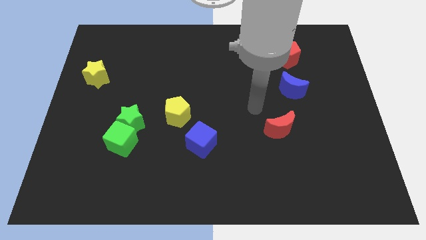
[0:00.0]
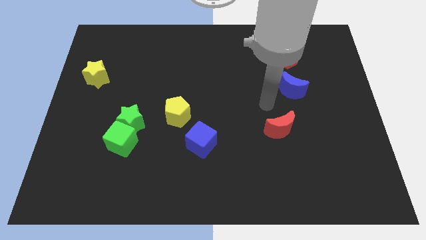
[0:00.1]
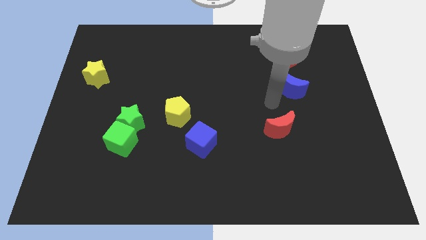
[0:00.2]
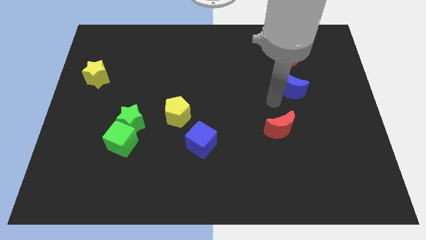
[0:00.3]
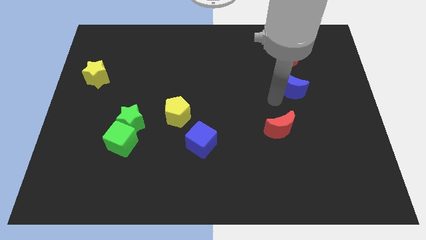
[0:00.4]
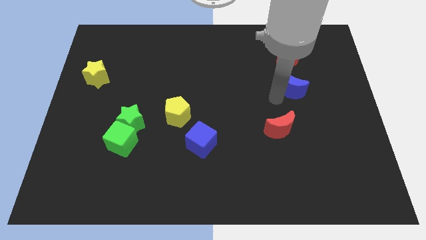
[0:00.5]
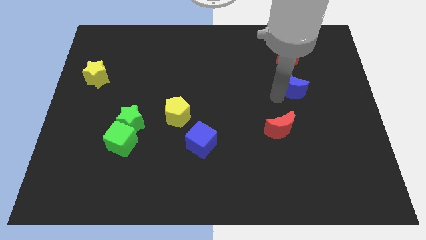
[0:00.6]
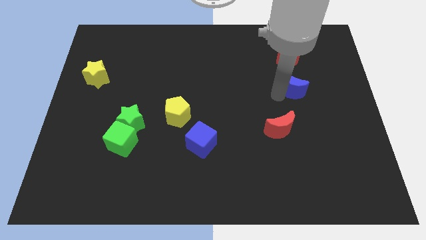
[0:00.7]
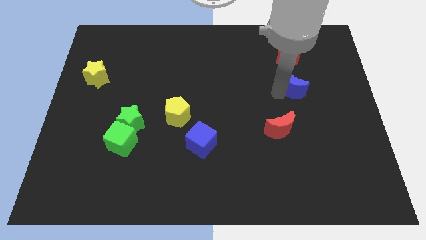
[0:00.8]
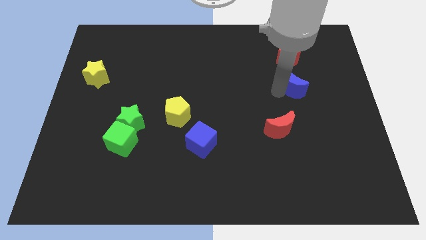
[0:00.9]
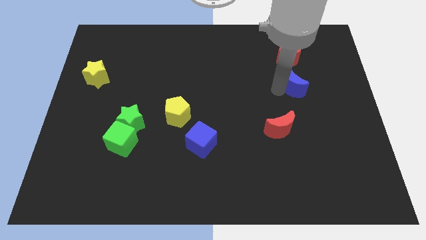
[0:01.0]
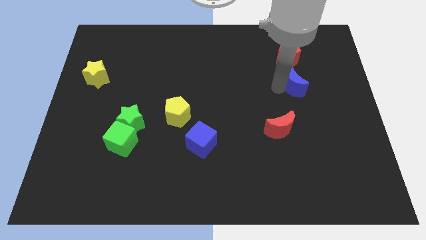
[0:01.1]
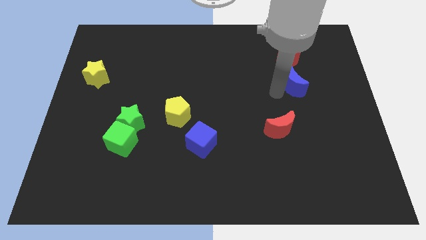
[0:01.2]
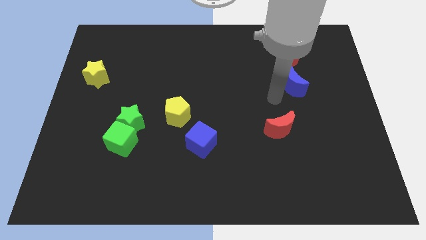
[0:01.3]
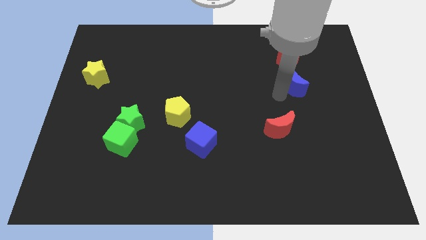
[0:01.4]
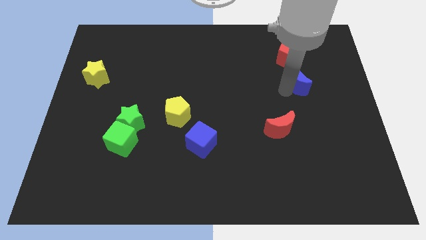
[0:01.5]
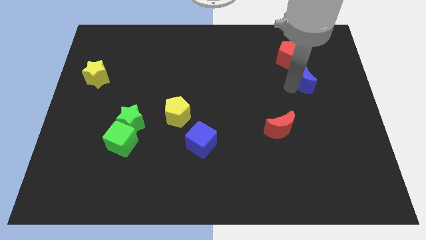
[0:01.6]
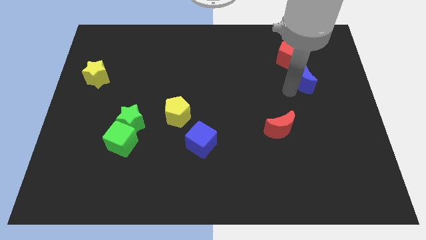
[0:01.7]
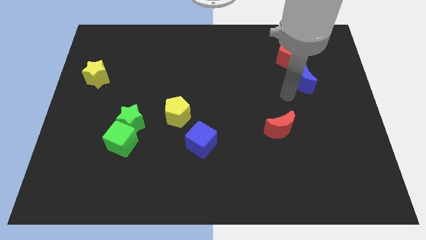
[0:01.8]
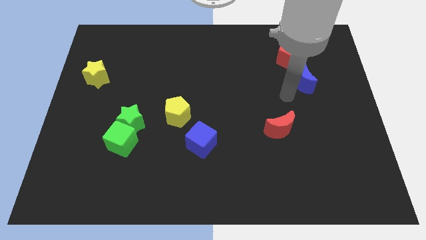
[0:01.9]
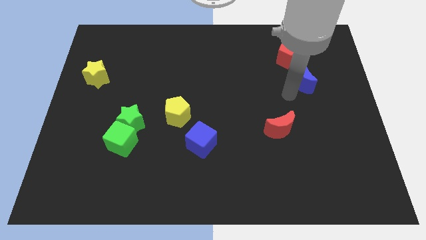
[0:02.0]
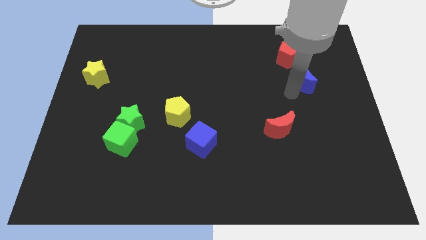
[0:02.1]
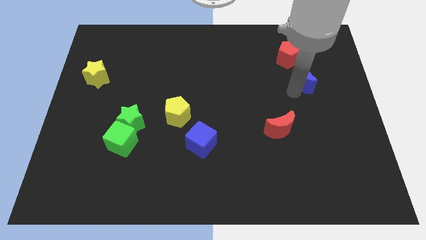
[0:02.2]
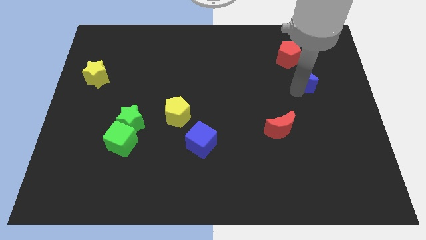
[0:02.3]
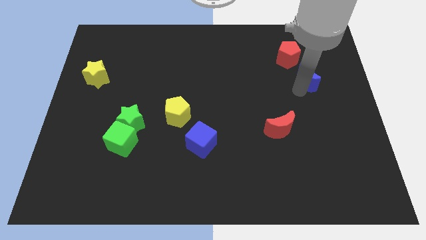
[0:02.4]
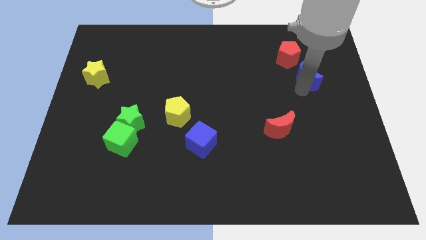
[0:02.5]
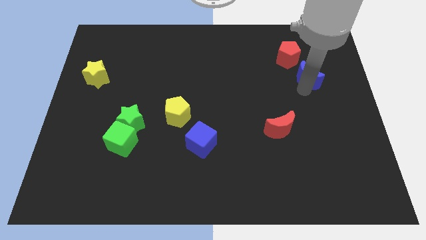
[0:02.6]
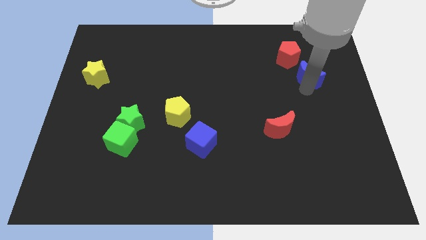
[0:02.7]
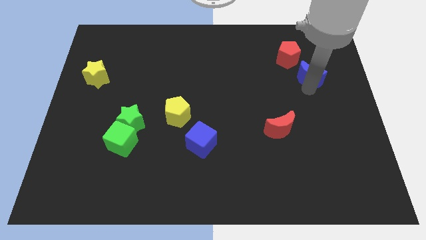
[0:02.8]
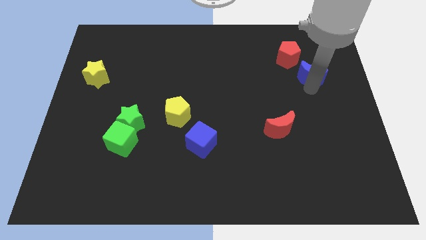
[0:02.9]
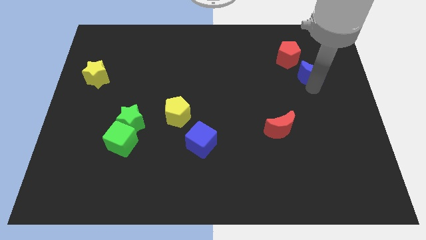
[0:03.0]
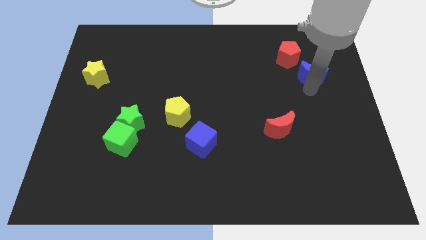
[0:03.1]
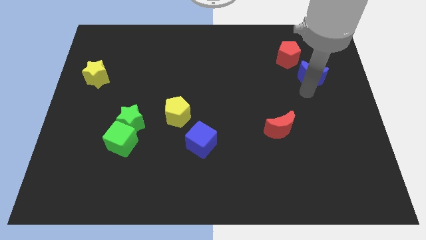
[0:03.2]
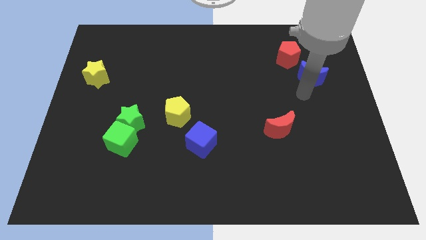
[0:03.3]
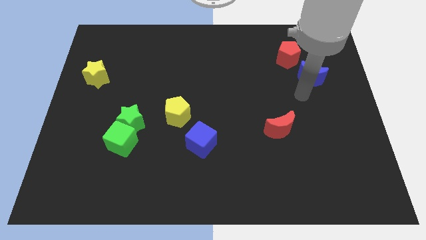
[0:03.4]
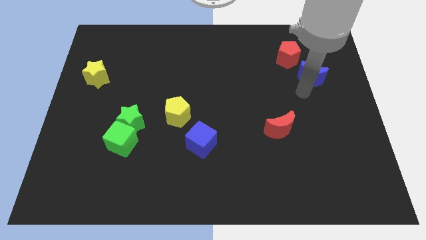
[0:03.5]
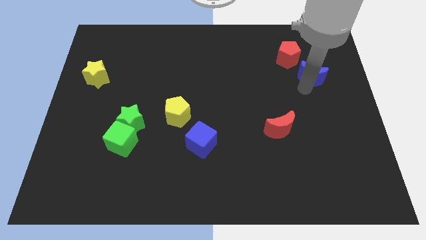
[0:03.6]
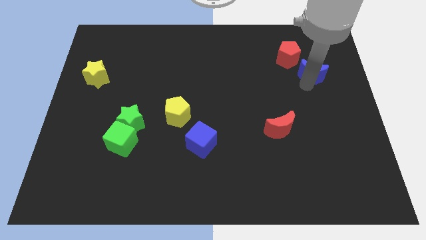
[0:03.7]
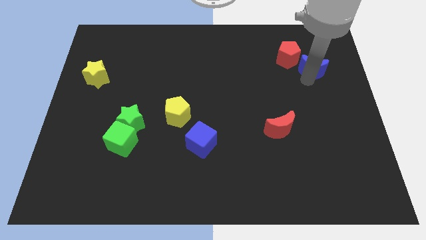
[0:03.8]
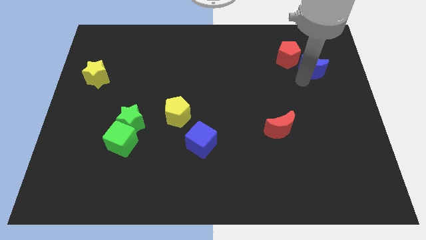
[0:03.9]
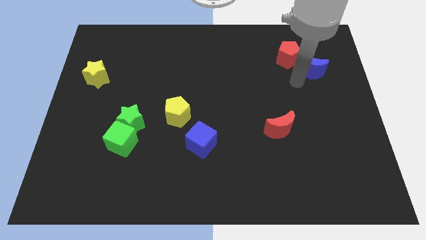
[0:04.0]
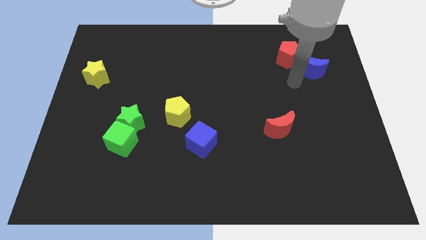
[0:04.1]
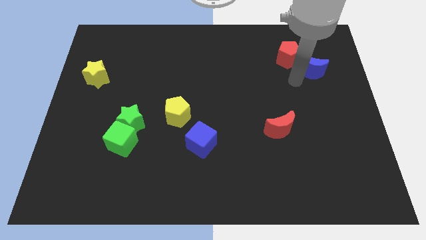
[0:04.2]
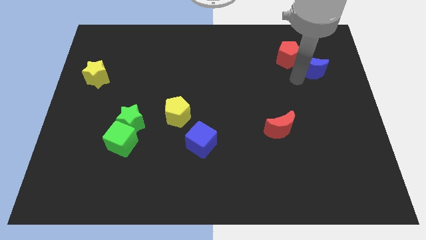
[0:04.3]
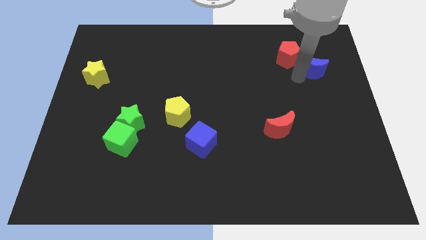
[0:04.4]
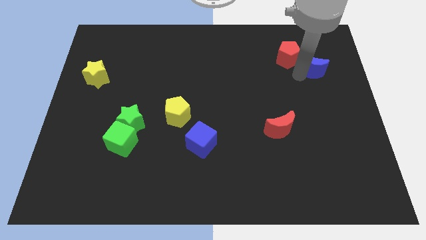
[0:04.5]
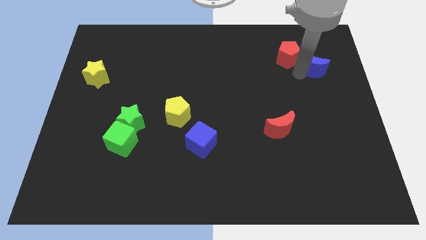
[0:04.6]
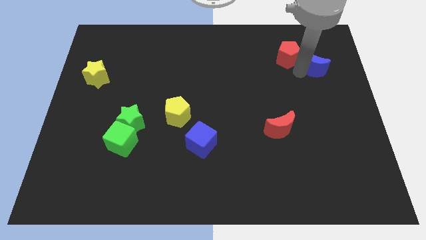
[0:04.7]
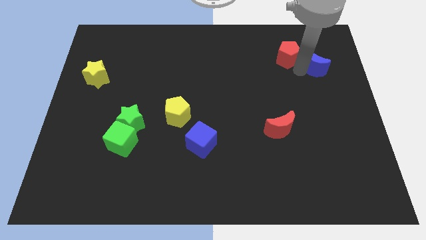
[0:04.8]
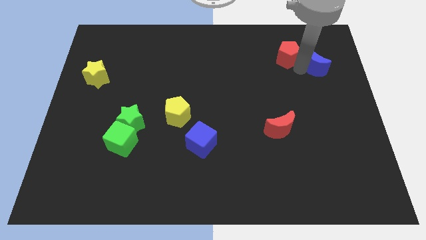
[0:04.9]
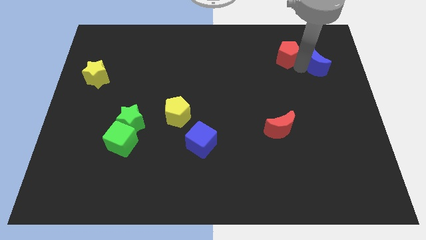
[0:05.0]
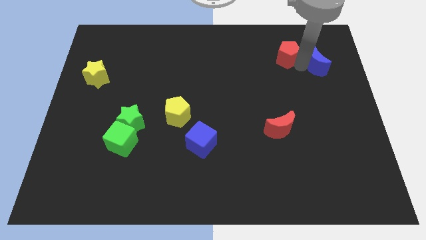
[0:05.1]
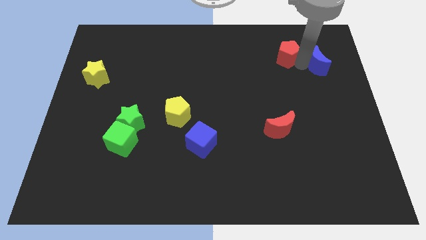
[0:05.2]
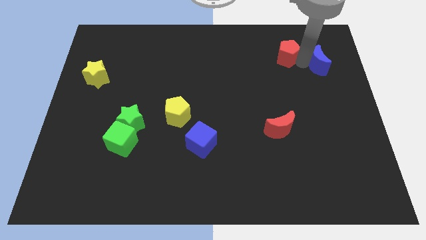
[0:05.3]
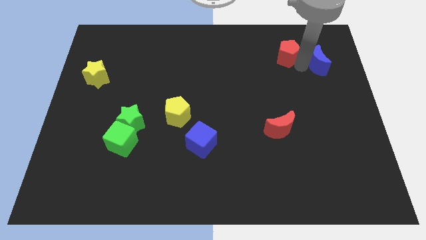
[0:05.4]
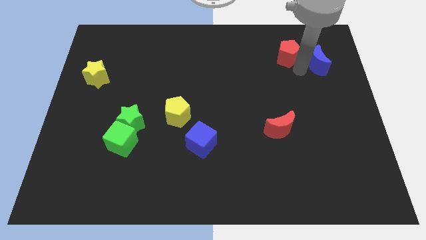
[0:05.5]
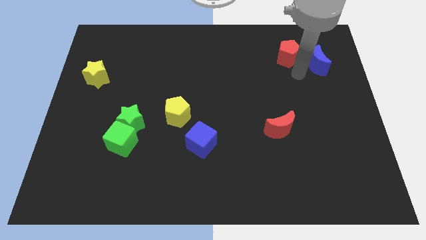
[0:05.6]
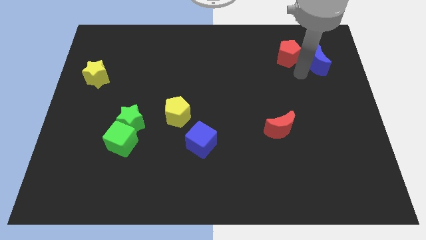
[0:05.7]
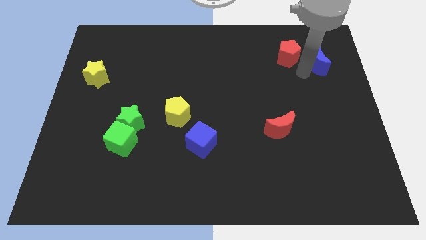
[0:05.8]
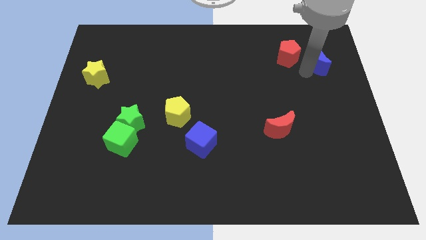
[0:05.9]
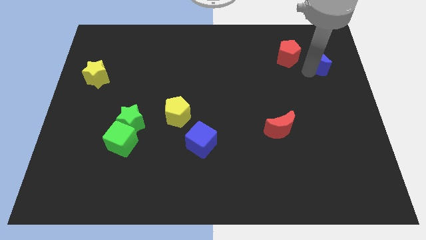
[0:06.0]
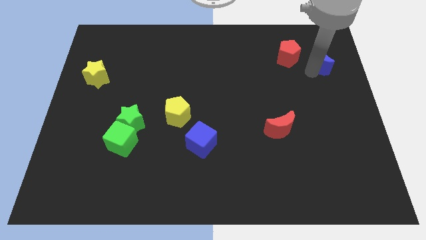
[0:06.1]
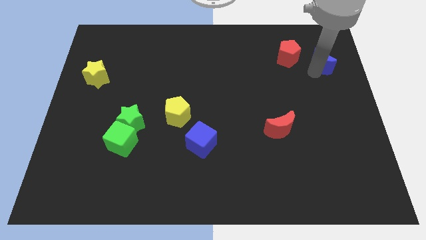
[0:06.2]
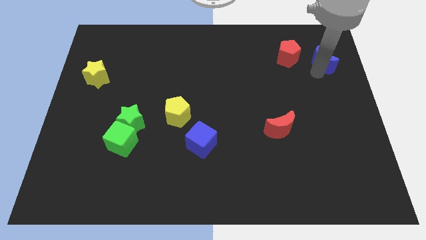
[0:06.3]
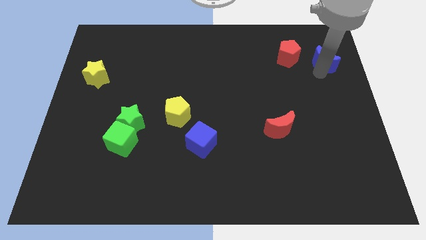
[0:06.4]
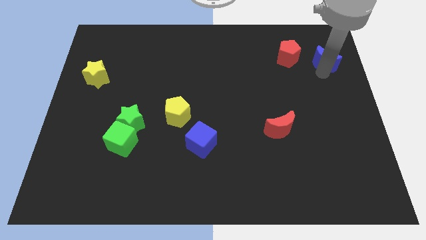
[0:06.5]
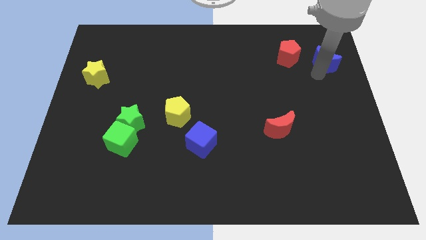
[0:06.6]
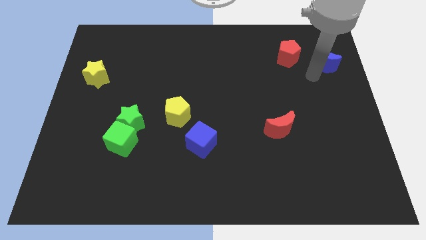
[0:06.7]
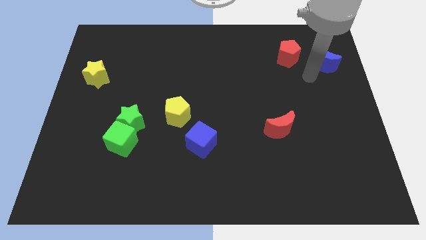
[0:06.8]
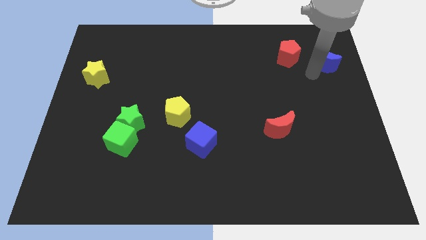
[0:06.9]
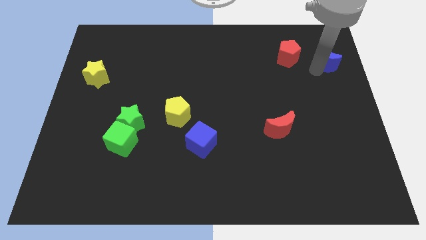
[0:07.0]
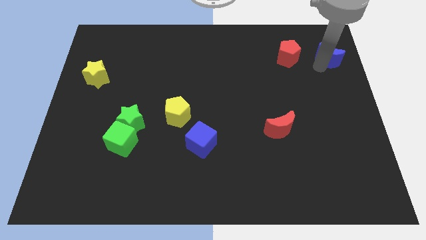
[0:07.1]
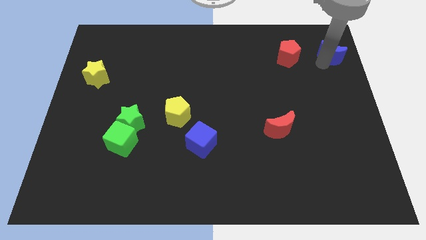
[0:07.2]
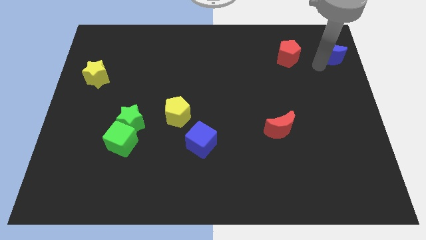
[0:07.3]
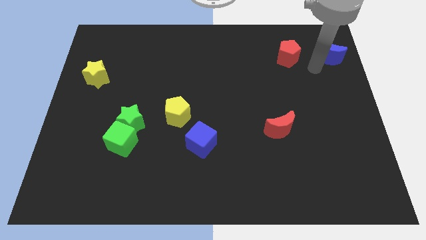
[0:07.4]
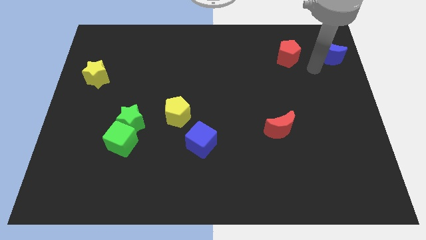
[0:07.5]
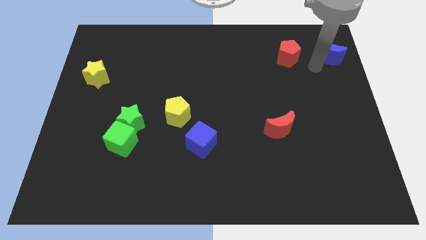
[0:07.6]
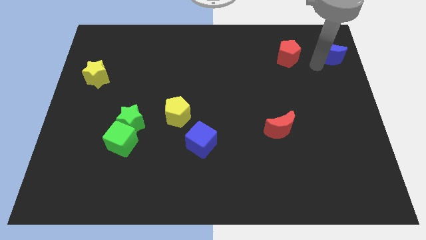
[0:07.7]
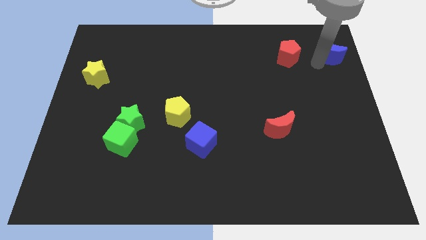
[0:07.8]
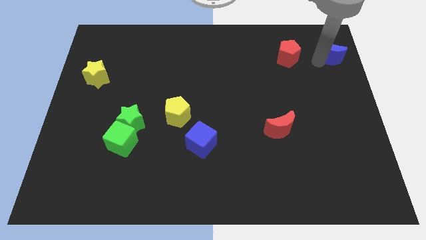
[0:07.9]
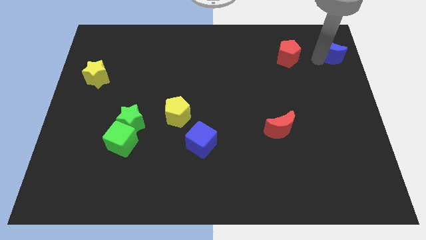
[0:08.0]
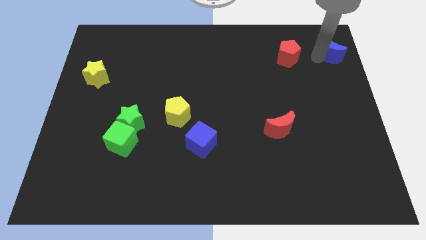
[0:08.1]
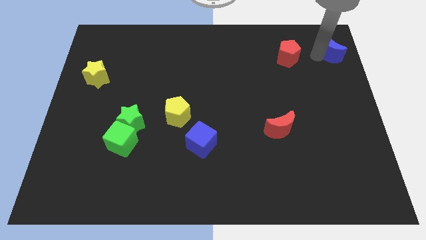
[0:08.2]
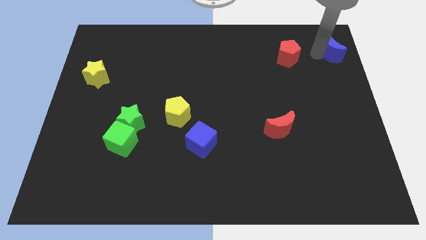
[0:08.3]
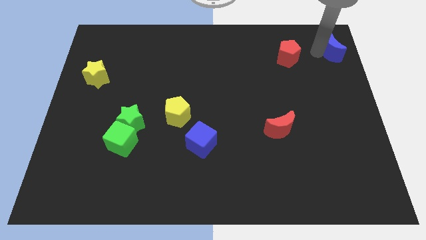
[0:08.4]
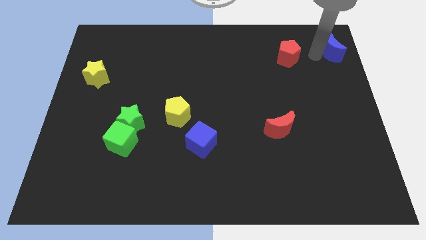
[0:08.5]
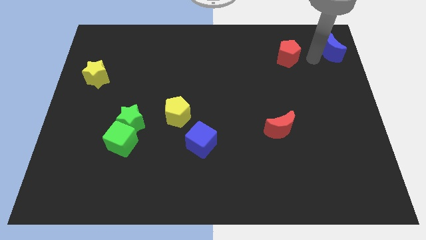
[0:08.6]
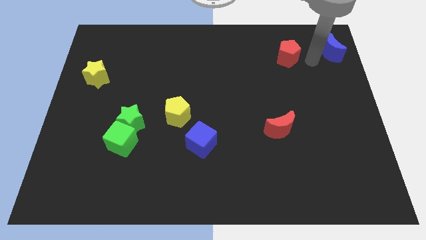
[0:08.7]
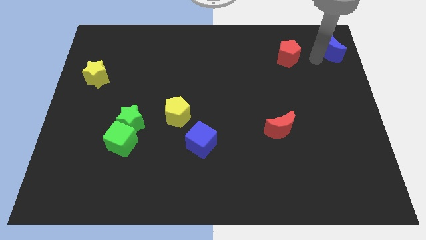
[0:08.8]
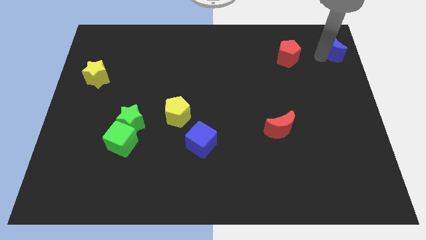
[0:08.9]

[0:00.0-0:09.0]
push the blue moon to the top right corner
